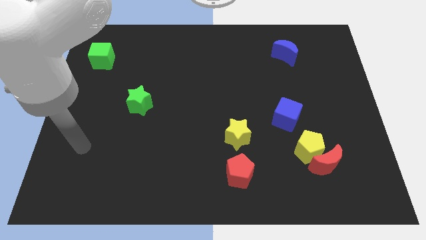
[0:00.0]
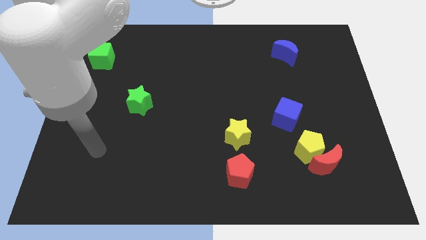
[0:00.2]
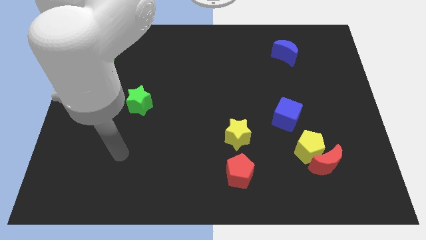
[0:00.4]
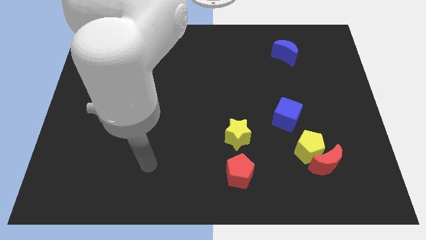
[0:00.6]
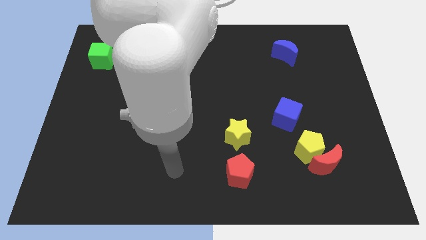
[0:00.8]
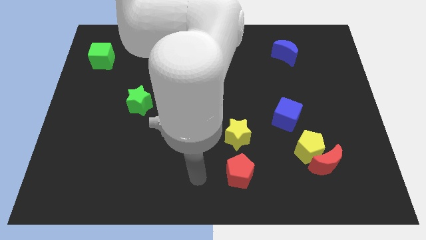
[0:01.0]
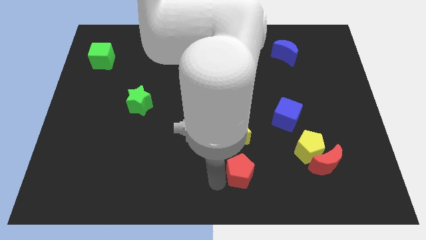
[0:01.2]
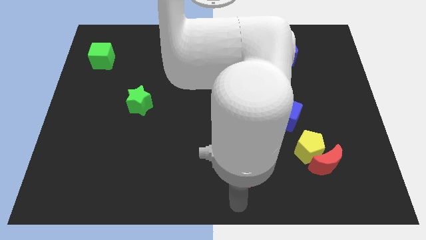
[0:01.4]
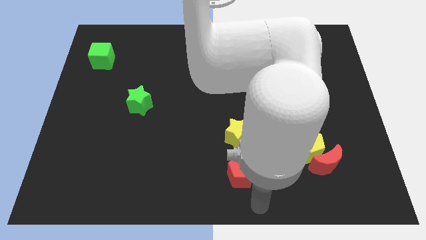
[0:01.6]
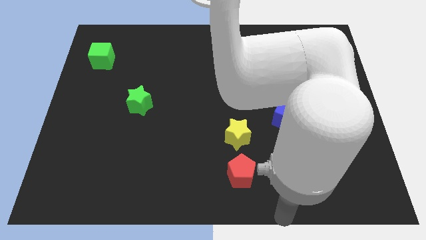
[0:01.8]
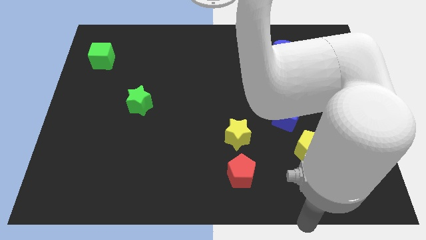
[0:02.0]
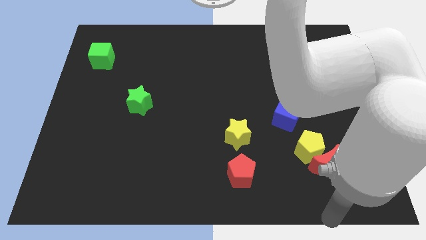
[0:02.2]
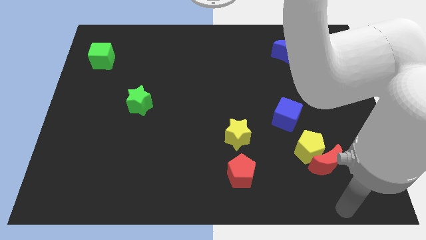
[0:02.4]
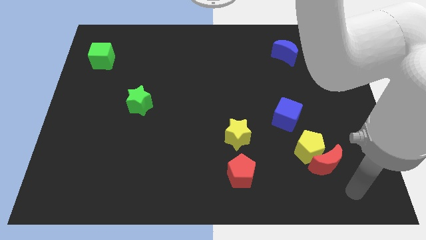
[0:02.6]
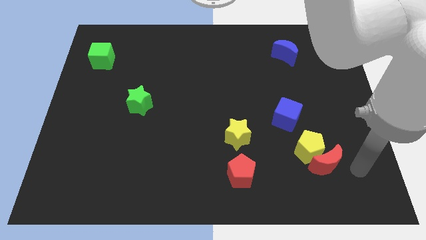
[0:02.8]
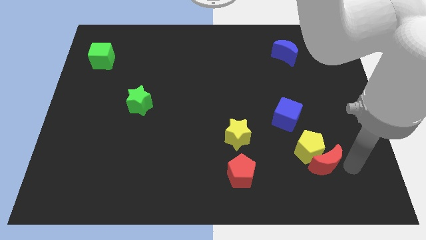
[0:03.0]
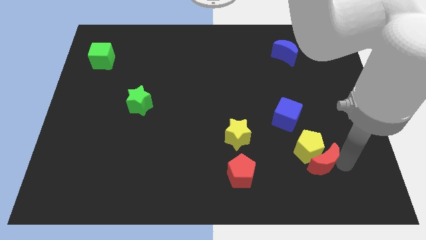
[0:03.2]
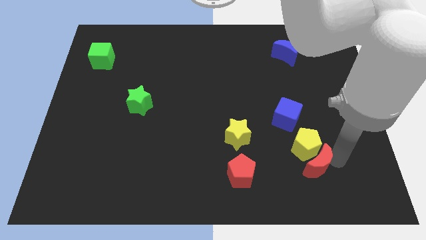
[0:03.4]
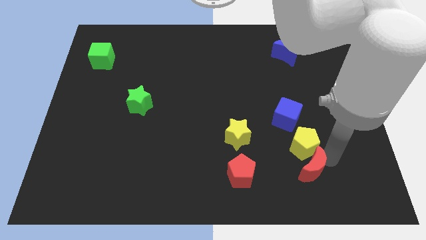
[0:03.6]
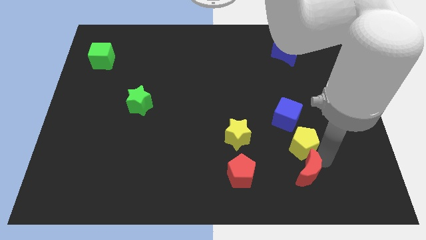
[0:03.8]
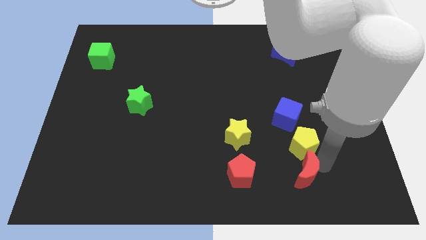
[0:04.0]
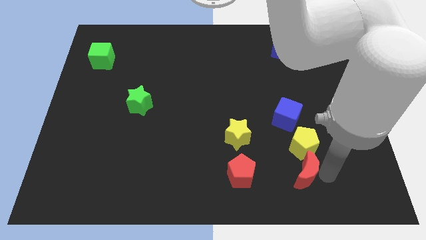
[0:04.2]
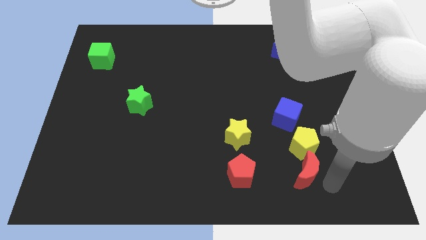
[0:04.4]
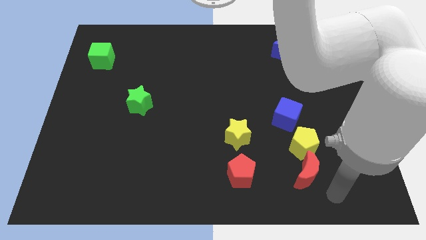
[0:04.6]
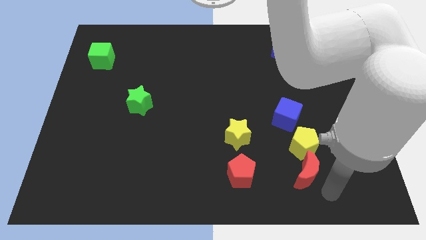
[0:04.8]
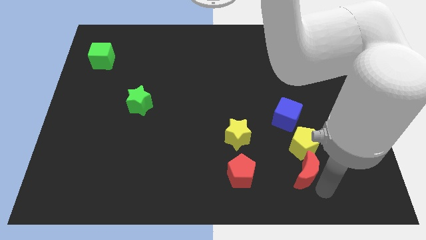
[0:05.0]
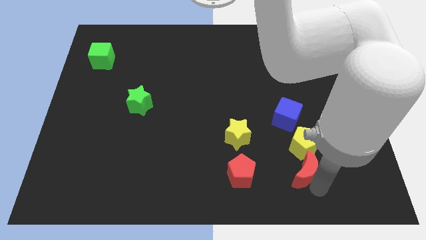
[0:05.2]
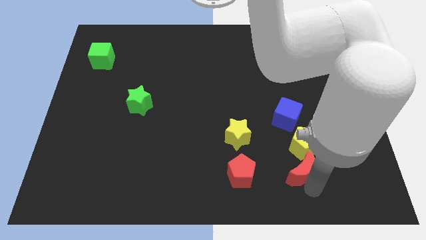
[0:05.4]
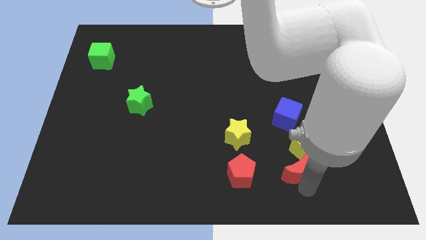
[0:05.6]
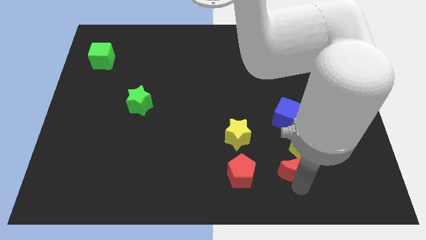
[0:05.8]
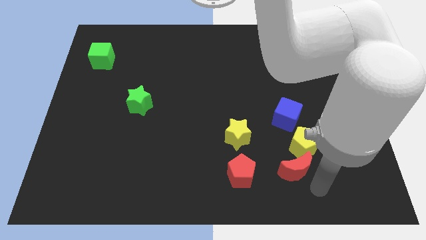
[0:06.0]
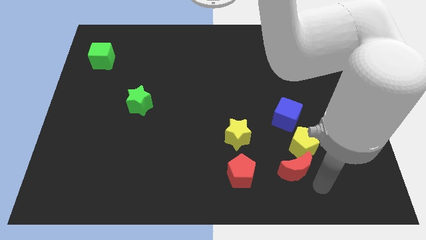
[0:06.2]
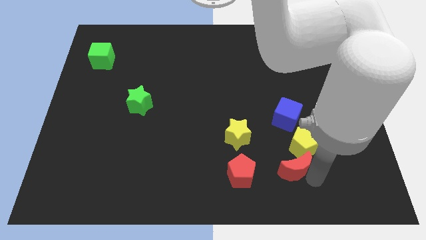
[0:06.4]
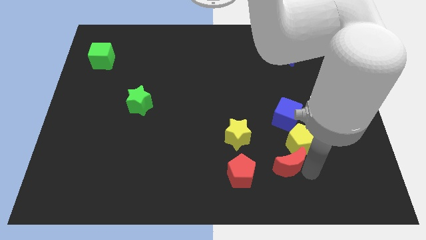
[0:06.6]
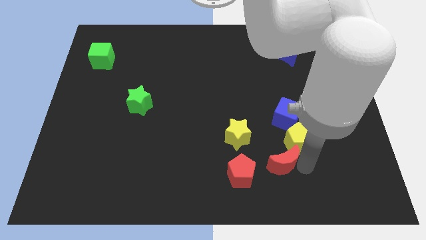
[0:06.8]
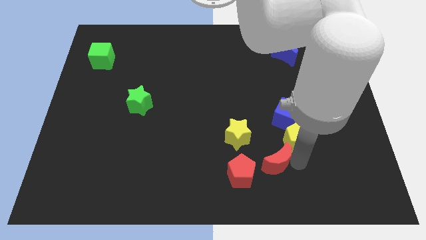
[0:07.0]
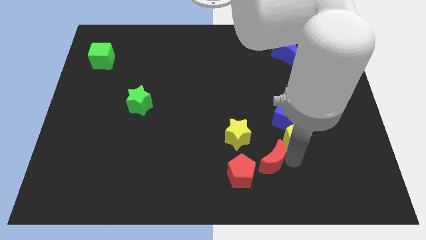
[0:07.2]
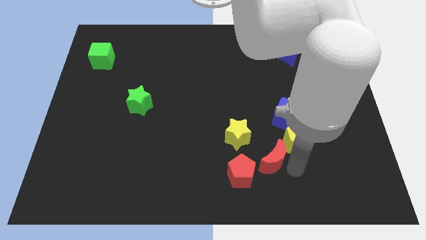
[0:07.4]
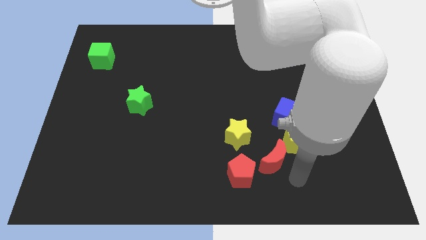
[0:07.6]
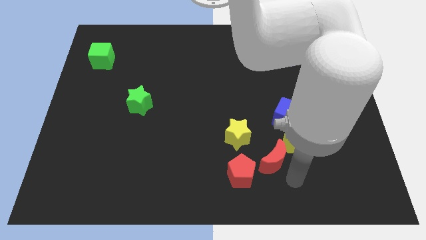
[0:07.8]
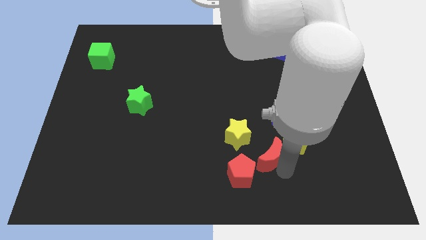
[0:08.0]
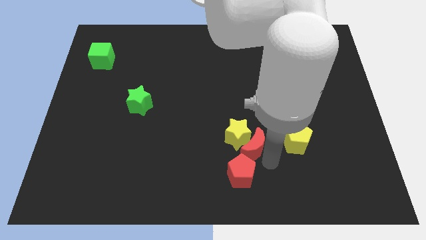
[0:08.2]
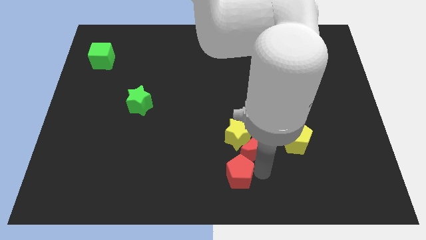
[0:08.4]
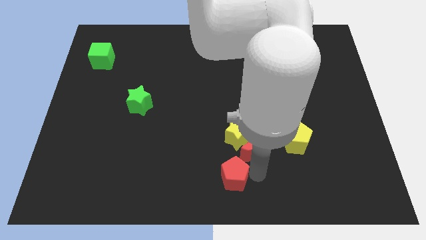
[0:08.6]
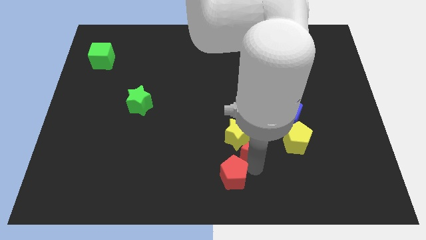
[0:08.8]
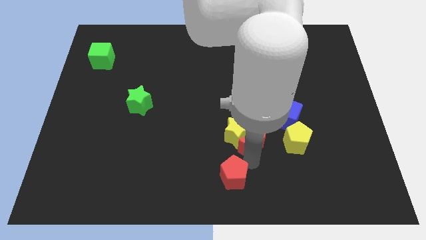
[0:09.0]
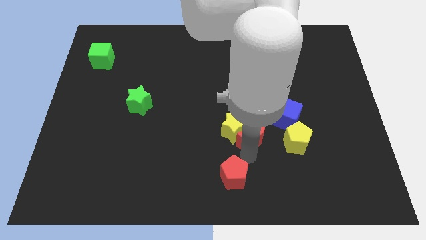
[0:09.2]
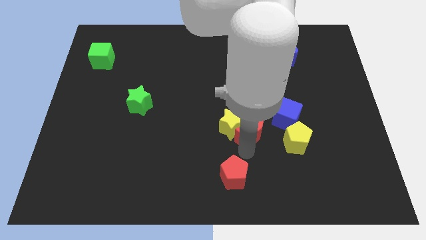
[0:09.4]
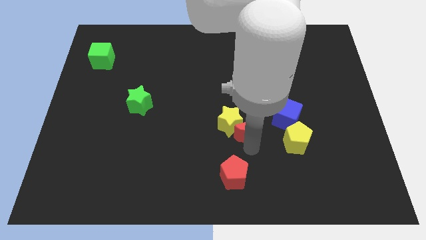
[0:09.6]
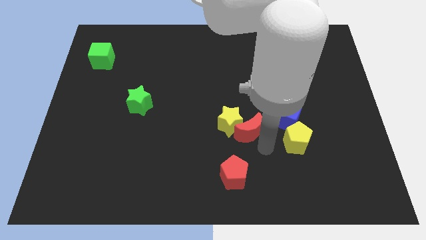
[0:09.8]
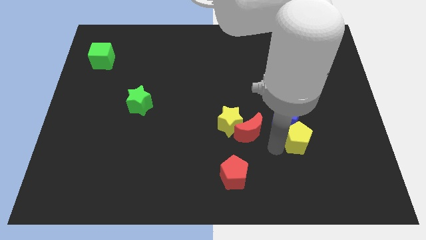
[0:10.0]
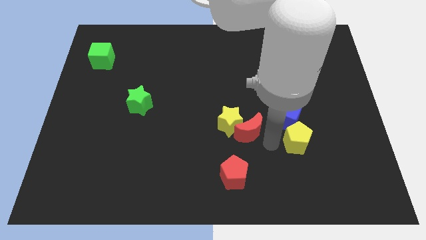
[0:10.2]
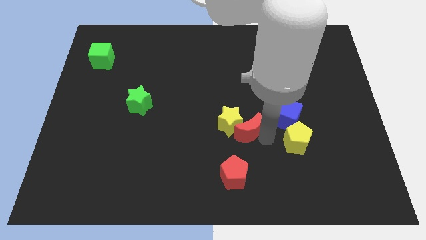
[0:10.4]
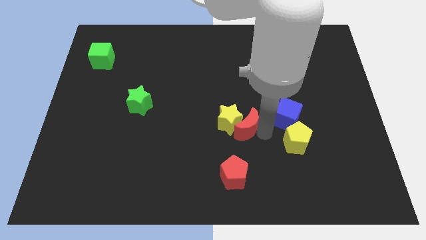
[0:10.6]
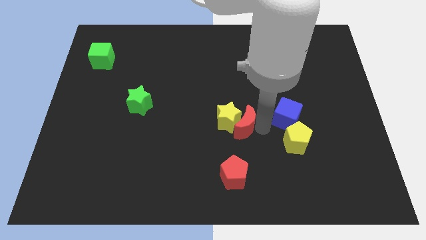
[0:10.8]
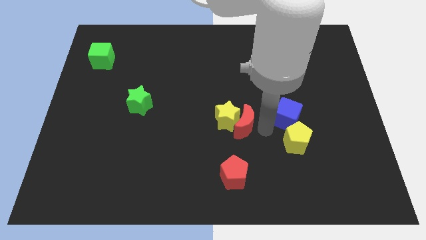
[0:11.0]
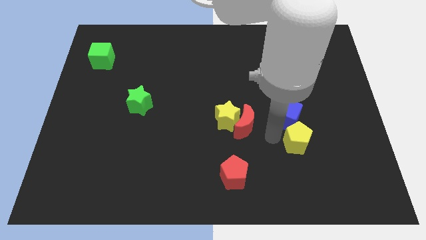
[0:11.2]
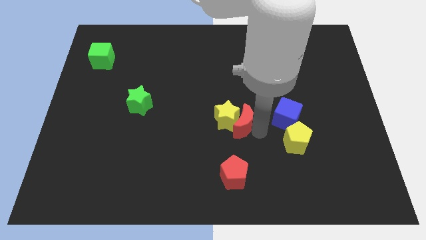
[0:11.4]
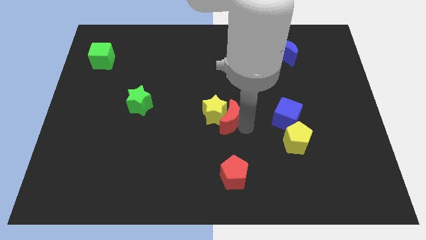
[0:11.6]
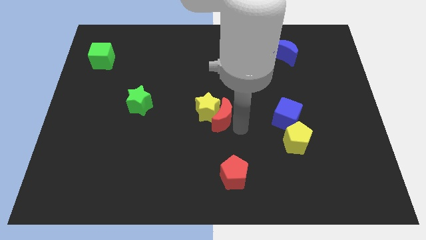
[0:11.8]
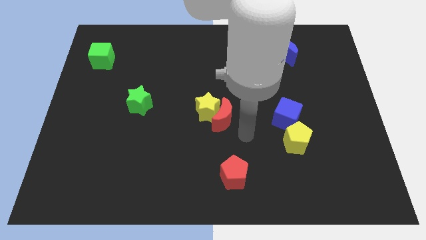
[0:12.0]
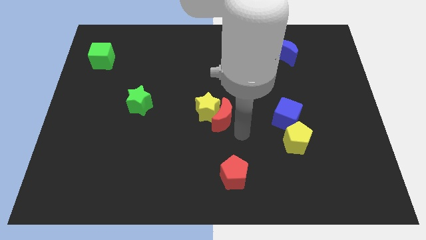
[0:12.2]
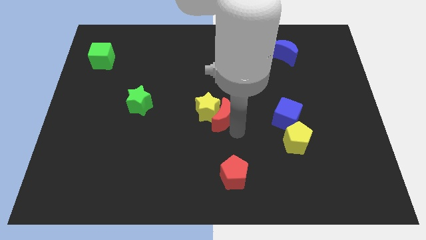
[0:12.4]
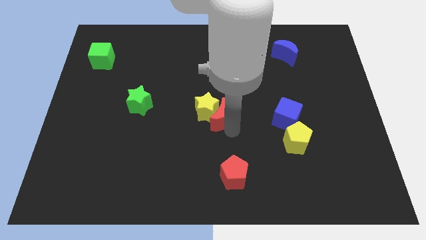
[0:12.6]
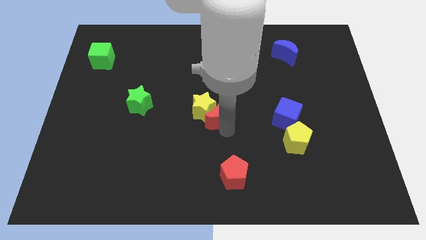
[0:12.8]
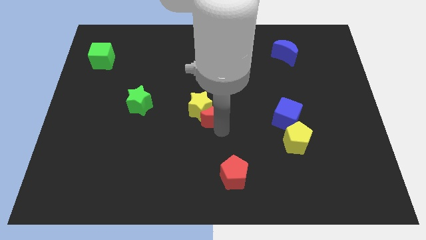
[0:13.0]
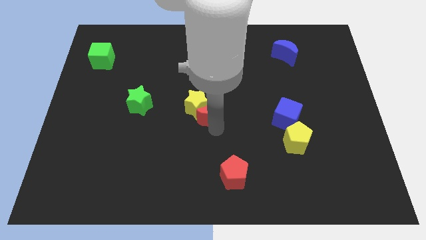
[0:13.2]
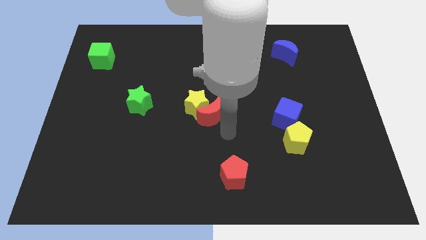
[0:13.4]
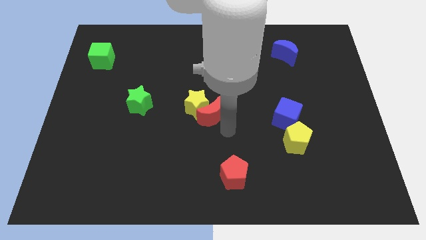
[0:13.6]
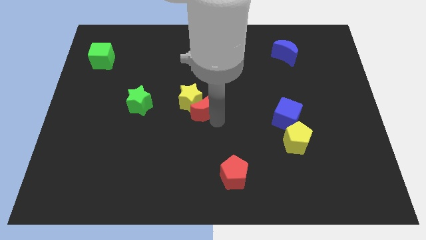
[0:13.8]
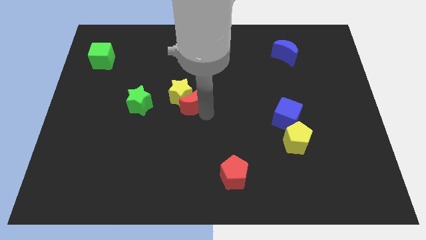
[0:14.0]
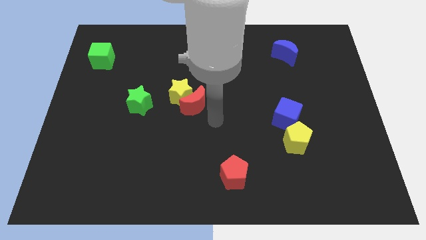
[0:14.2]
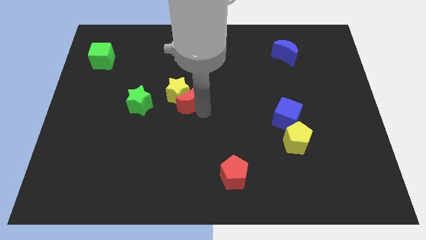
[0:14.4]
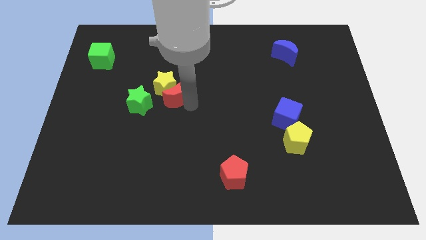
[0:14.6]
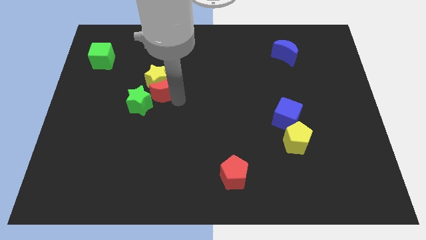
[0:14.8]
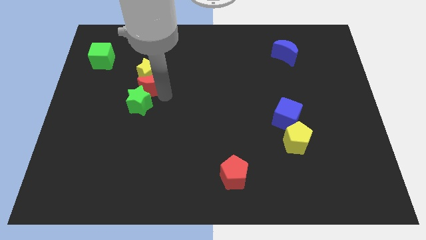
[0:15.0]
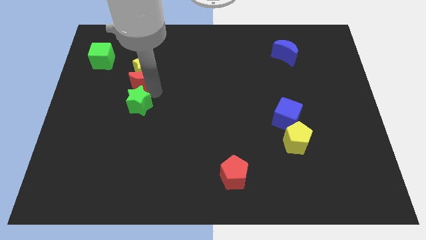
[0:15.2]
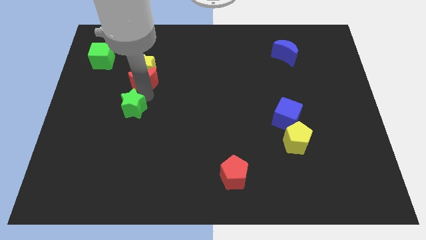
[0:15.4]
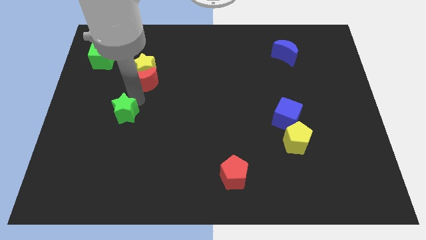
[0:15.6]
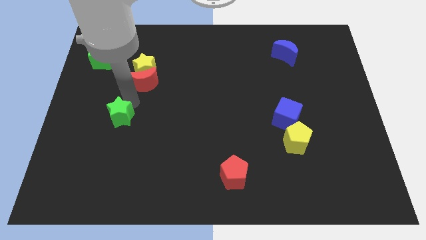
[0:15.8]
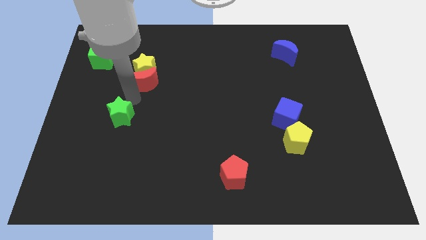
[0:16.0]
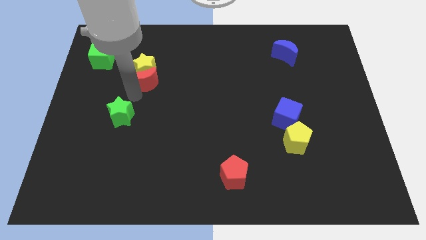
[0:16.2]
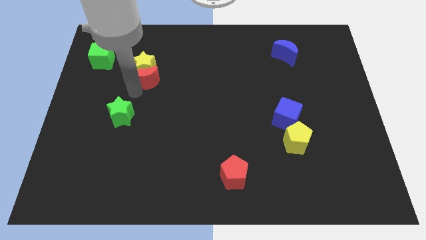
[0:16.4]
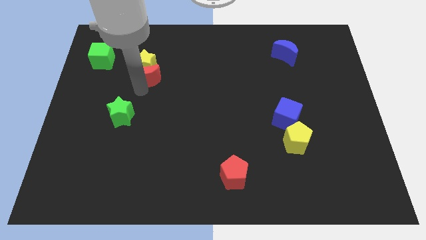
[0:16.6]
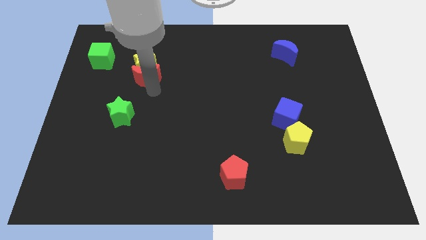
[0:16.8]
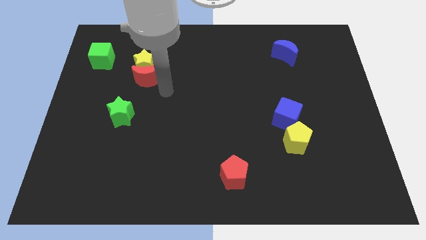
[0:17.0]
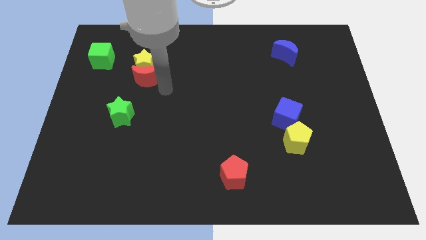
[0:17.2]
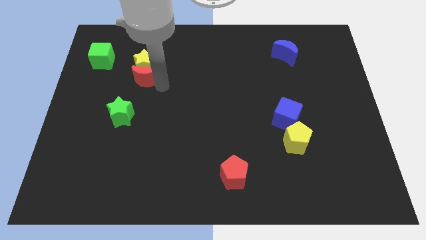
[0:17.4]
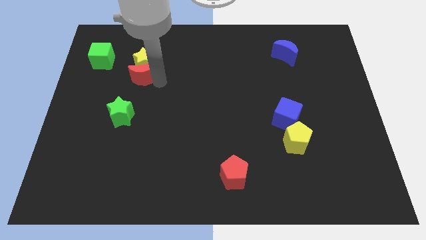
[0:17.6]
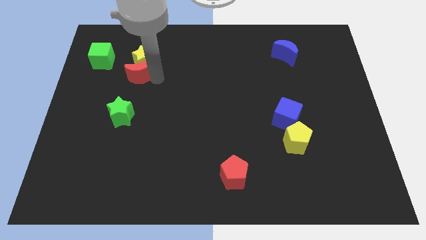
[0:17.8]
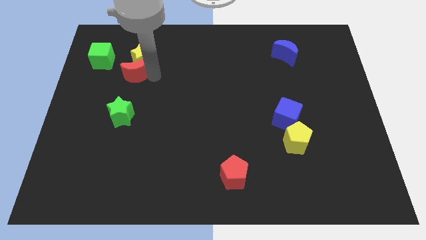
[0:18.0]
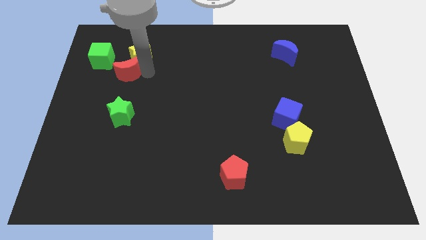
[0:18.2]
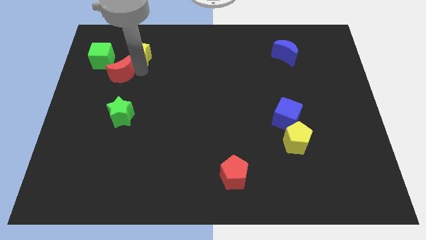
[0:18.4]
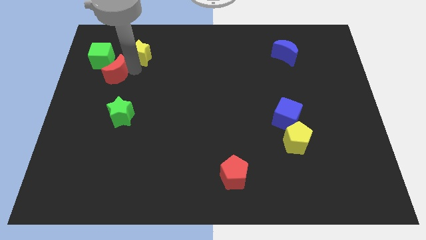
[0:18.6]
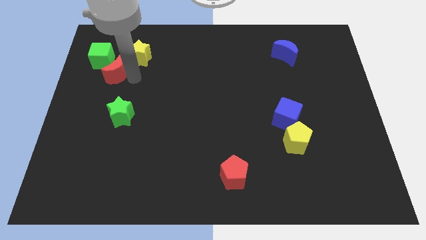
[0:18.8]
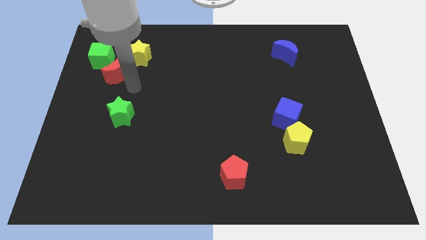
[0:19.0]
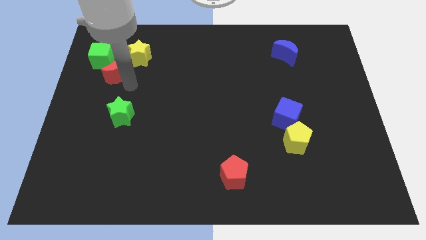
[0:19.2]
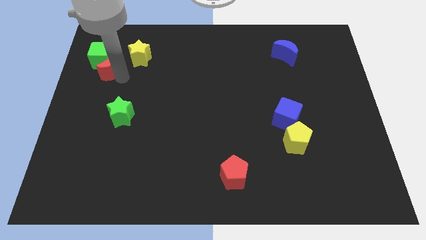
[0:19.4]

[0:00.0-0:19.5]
put the red moon towards the green cube
